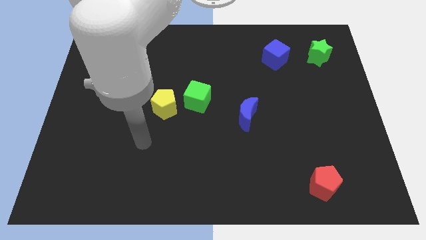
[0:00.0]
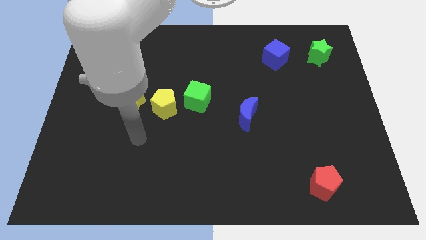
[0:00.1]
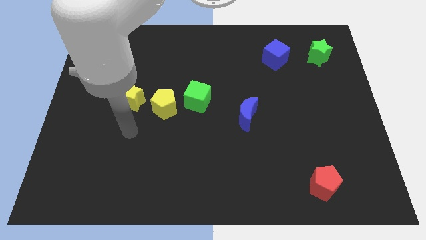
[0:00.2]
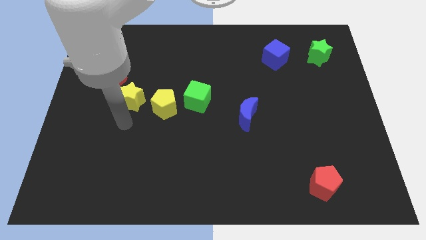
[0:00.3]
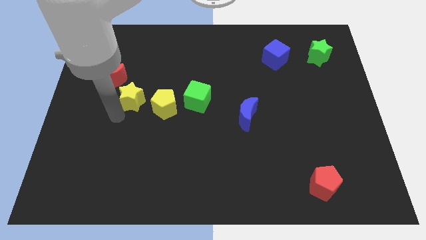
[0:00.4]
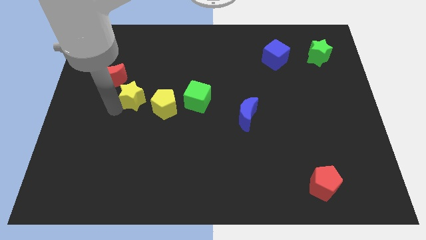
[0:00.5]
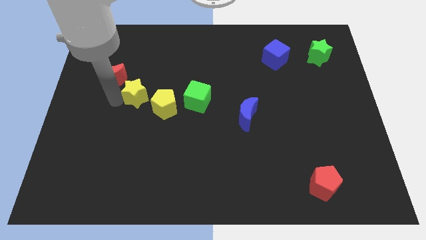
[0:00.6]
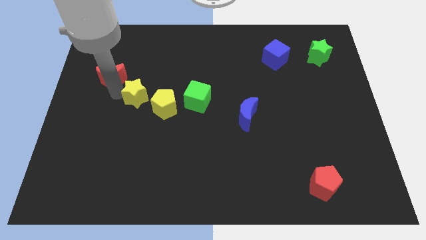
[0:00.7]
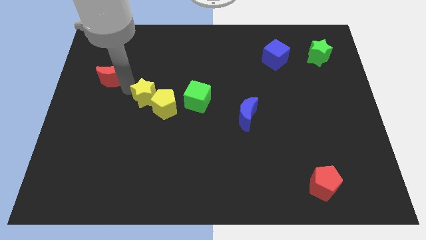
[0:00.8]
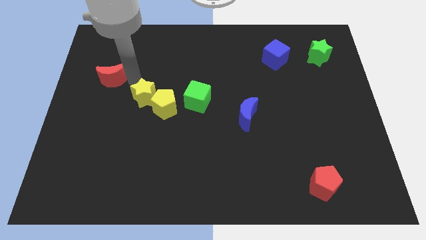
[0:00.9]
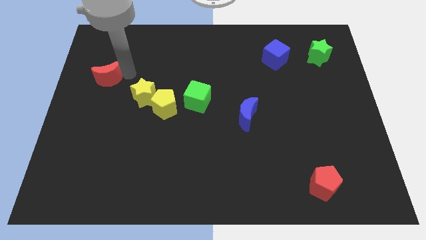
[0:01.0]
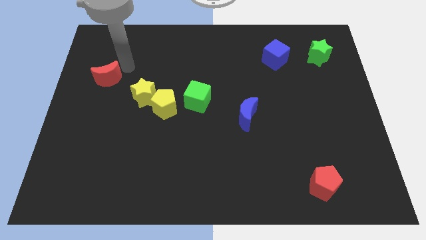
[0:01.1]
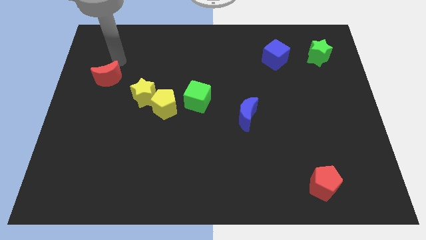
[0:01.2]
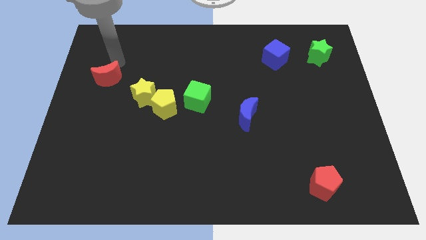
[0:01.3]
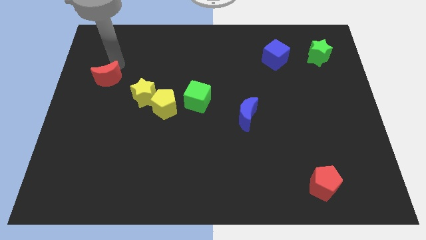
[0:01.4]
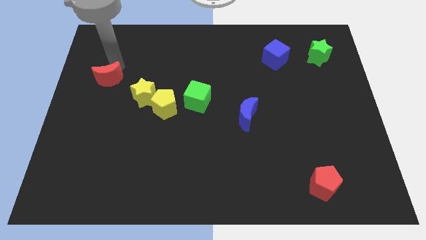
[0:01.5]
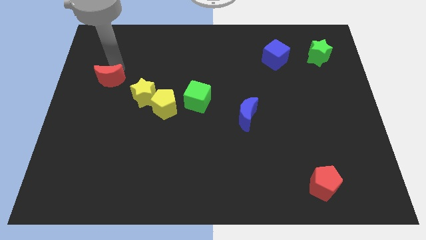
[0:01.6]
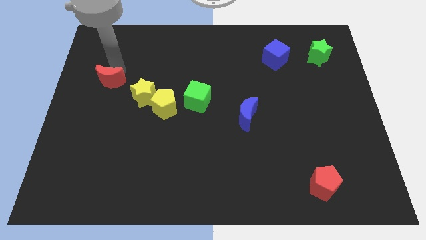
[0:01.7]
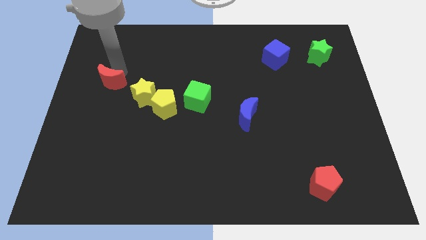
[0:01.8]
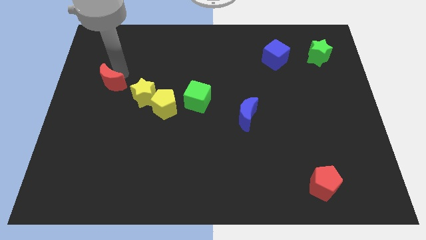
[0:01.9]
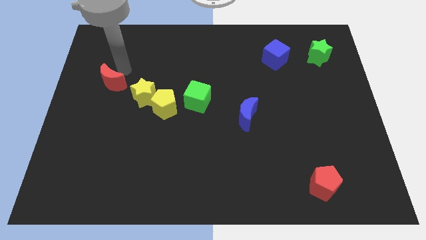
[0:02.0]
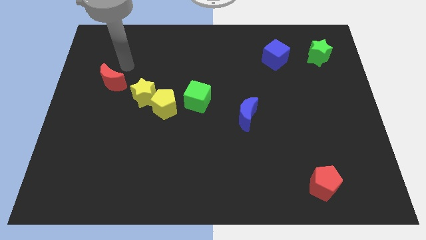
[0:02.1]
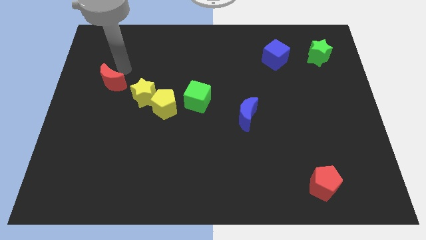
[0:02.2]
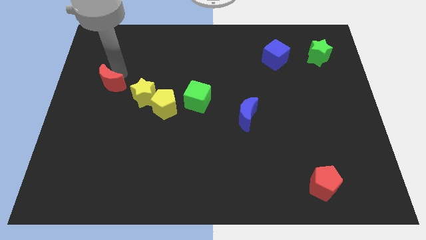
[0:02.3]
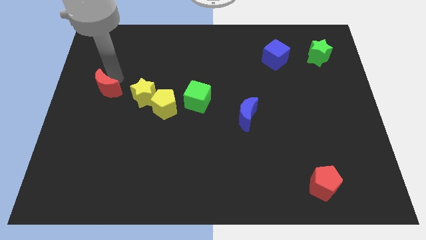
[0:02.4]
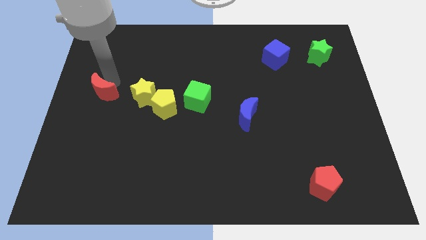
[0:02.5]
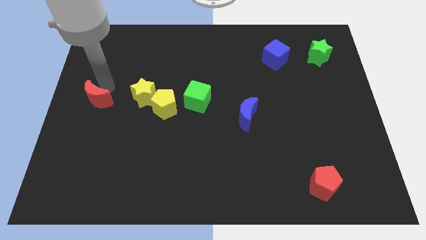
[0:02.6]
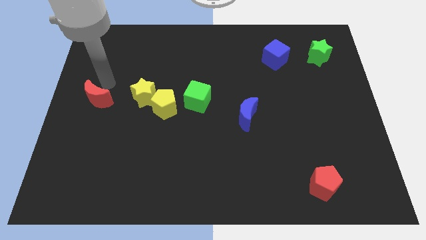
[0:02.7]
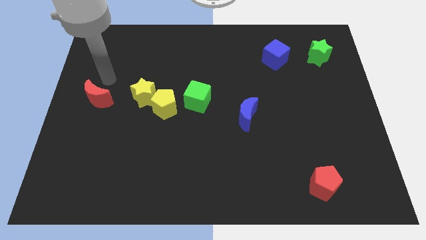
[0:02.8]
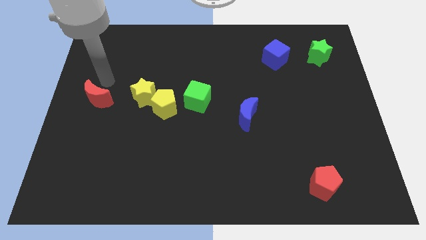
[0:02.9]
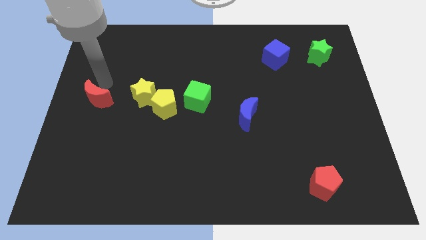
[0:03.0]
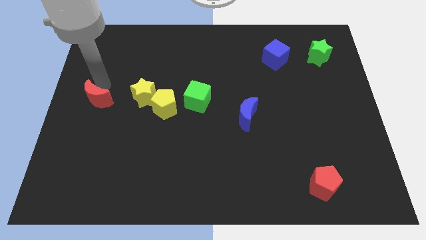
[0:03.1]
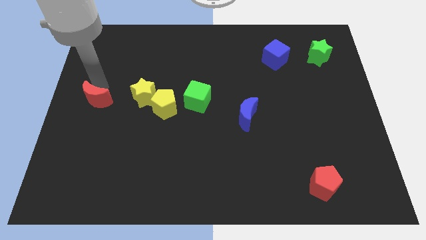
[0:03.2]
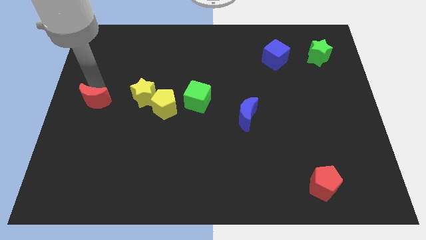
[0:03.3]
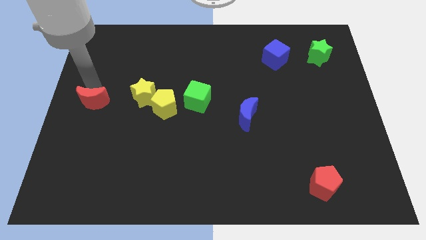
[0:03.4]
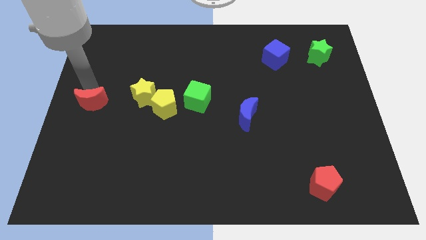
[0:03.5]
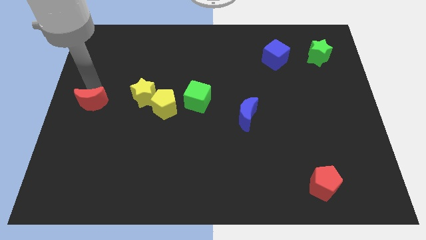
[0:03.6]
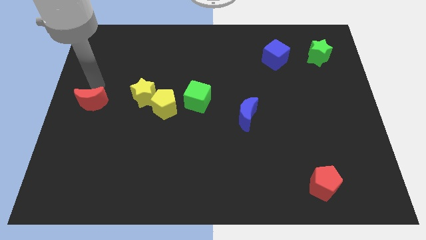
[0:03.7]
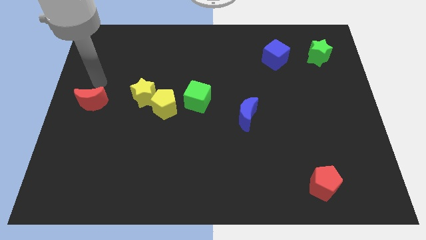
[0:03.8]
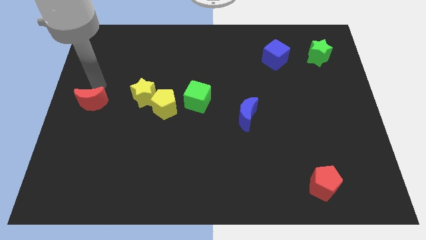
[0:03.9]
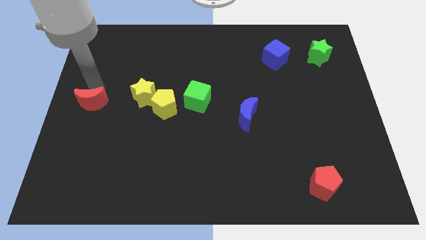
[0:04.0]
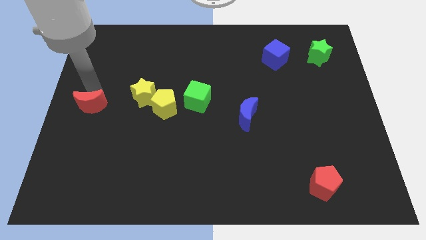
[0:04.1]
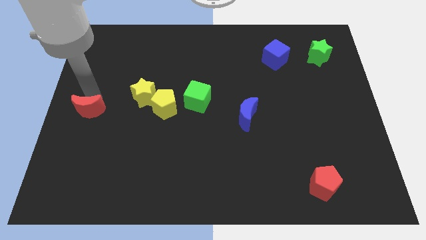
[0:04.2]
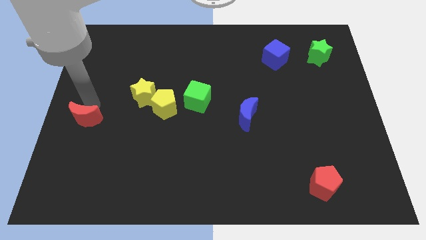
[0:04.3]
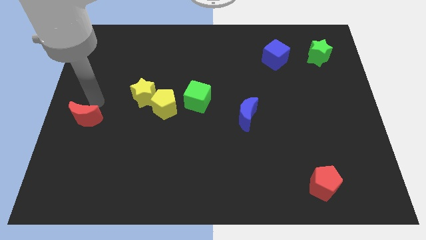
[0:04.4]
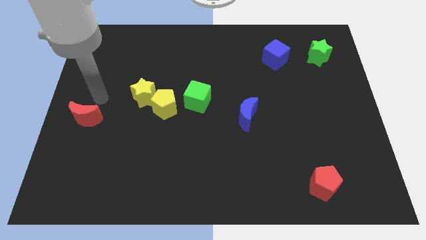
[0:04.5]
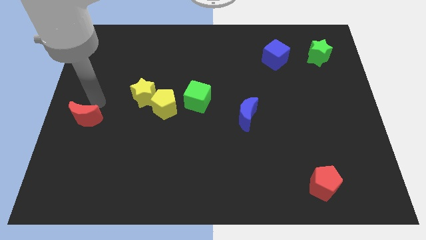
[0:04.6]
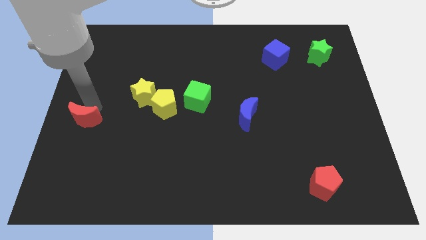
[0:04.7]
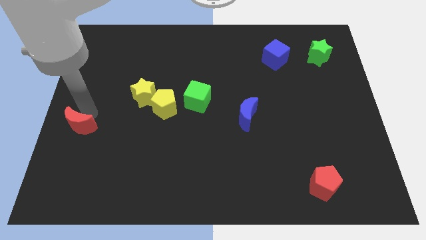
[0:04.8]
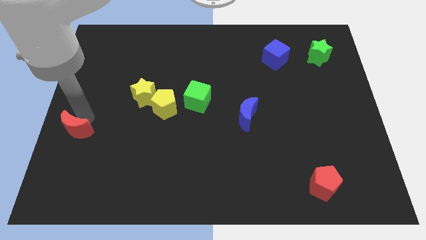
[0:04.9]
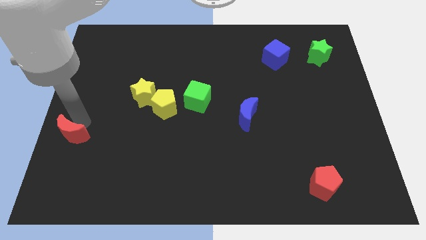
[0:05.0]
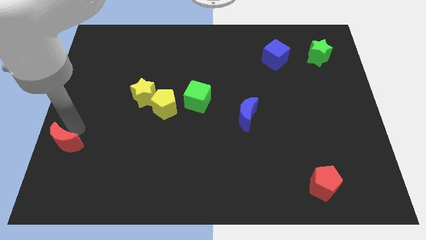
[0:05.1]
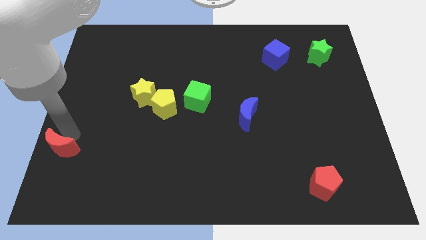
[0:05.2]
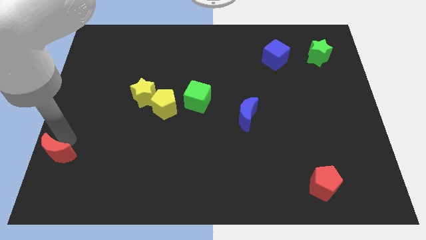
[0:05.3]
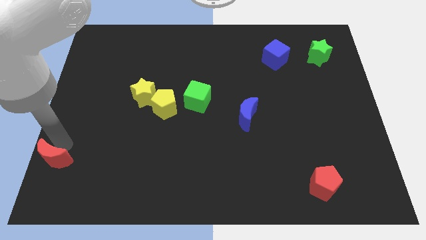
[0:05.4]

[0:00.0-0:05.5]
put the red moon to the bottom left

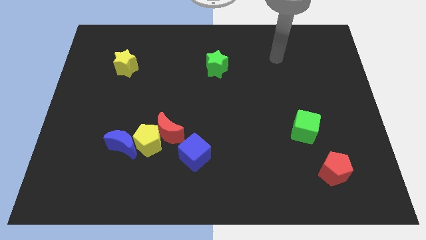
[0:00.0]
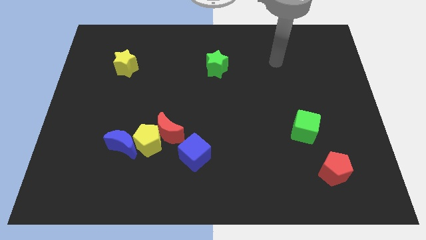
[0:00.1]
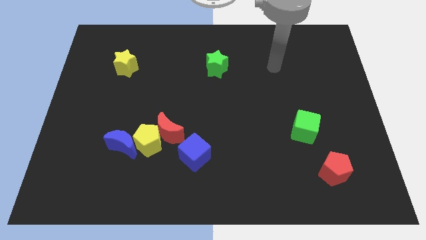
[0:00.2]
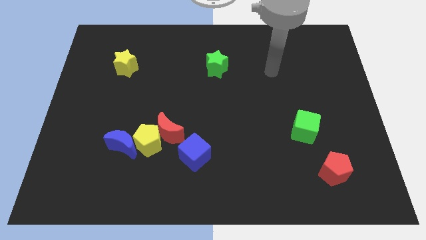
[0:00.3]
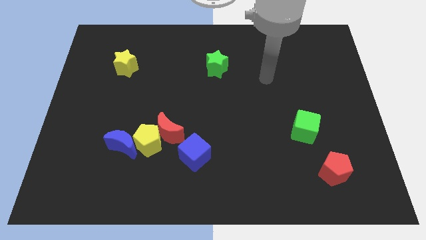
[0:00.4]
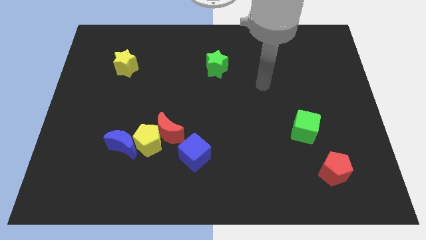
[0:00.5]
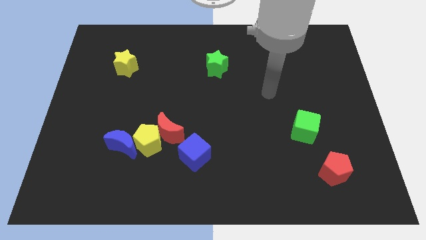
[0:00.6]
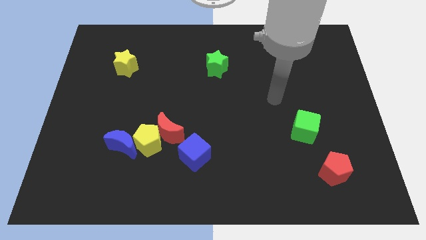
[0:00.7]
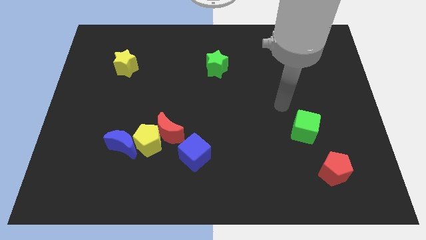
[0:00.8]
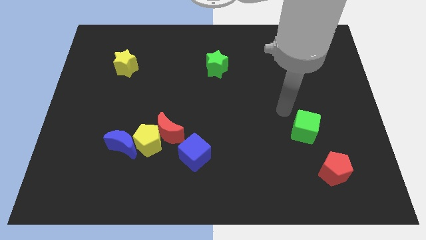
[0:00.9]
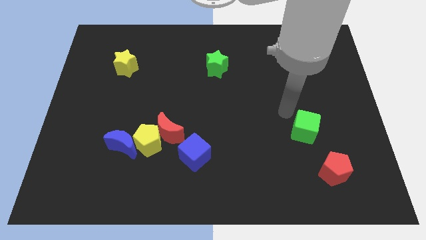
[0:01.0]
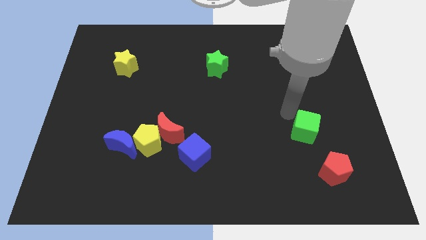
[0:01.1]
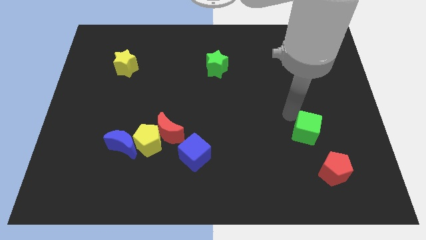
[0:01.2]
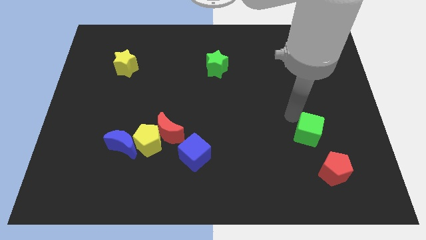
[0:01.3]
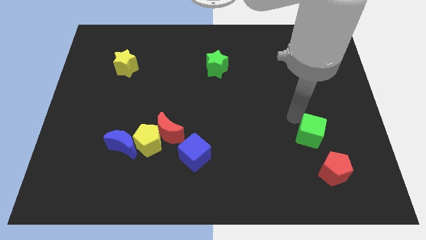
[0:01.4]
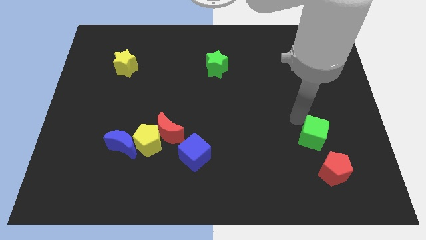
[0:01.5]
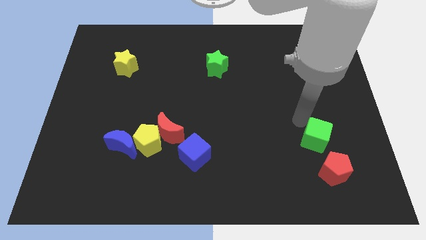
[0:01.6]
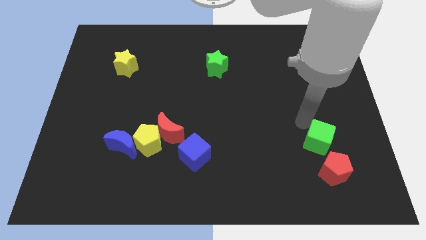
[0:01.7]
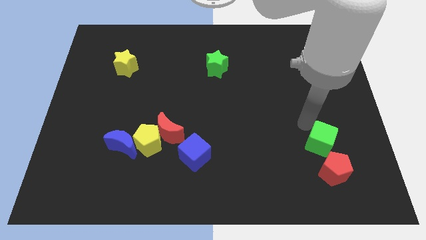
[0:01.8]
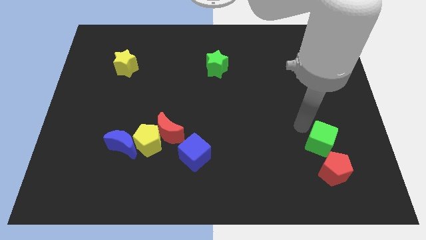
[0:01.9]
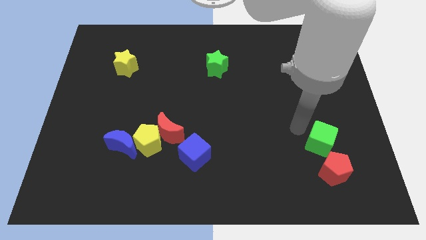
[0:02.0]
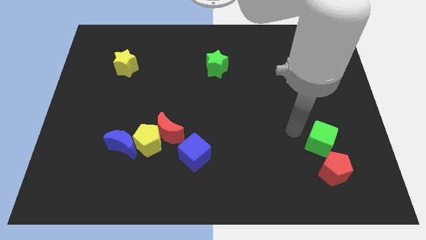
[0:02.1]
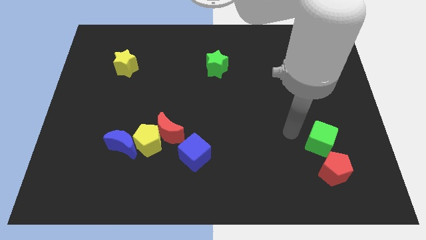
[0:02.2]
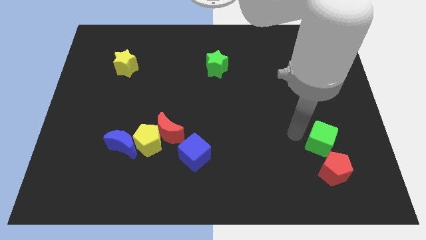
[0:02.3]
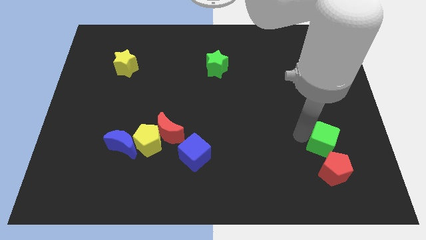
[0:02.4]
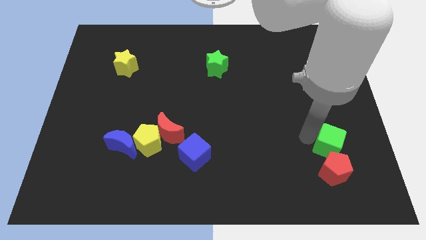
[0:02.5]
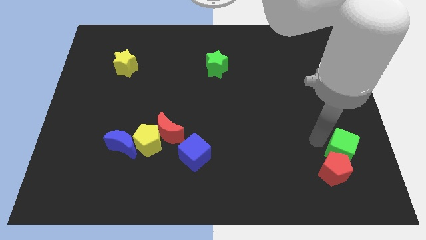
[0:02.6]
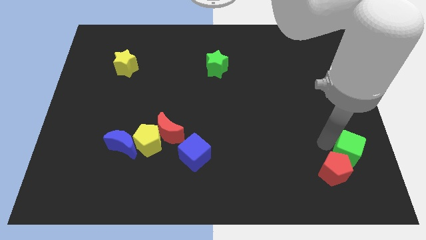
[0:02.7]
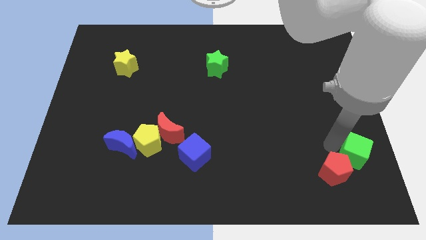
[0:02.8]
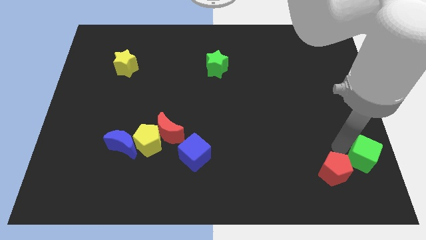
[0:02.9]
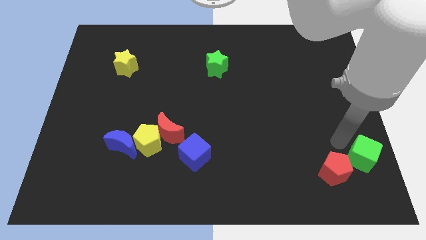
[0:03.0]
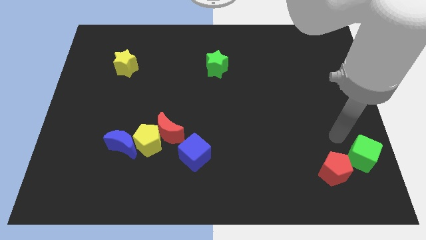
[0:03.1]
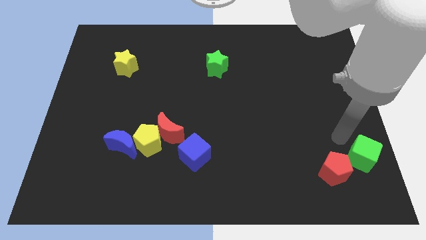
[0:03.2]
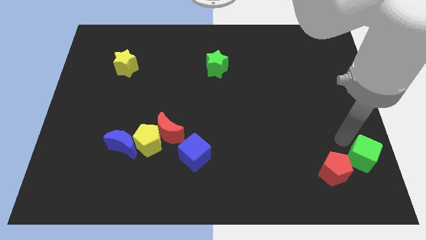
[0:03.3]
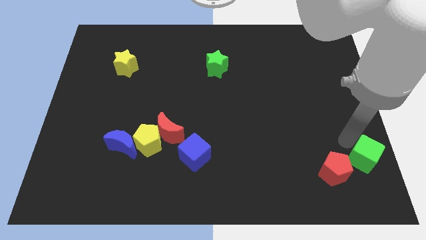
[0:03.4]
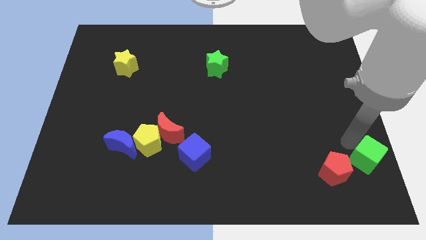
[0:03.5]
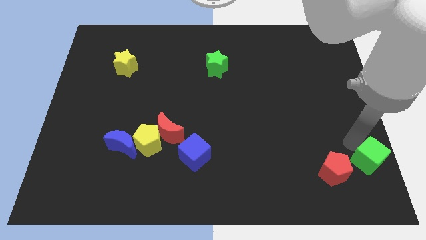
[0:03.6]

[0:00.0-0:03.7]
put the green cube to the bottom right
